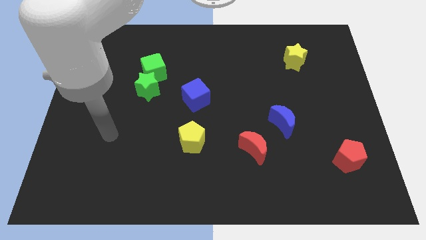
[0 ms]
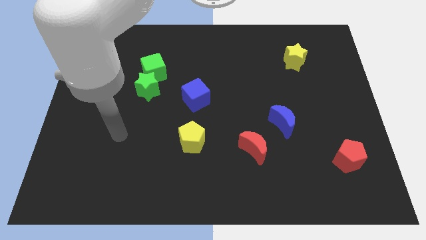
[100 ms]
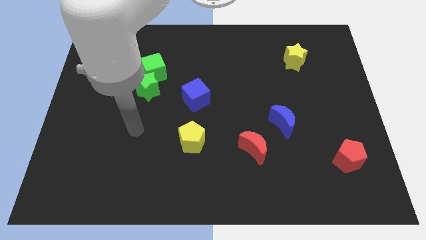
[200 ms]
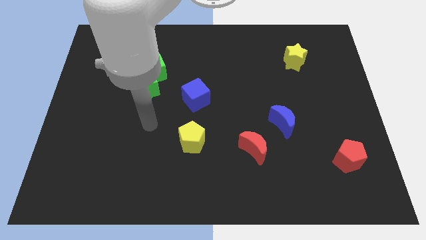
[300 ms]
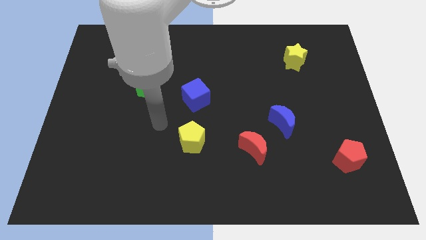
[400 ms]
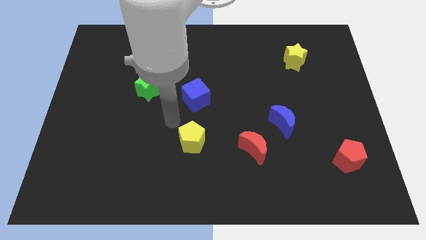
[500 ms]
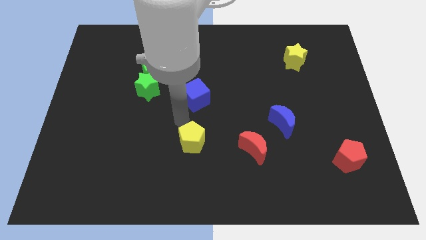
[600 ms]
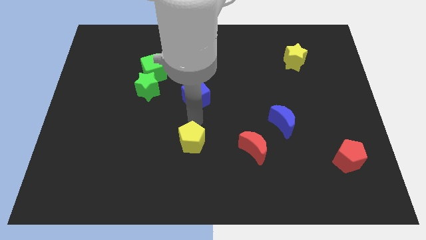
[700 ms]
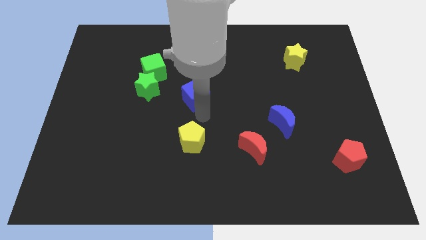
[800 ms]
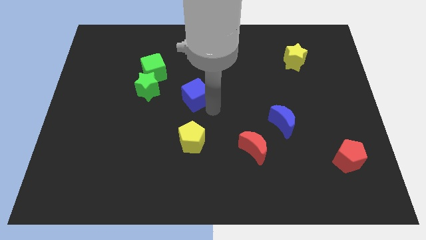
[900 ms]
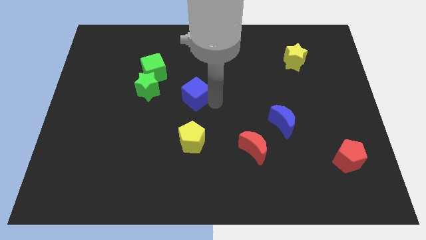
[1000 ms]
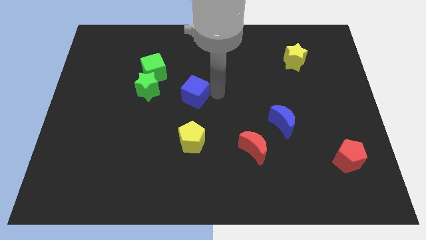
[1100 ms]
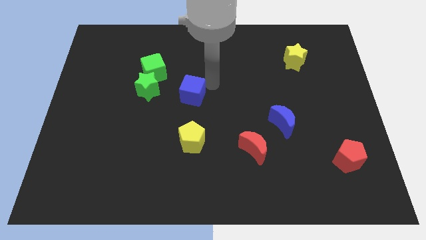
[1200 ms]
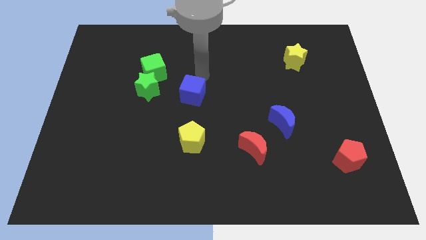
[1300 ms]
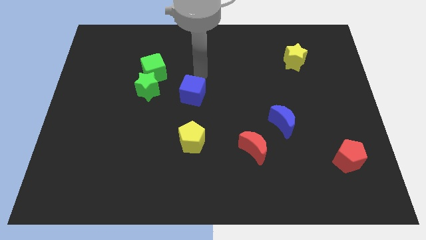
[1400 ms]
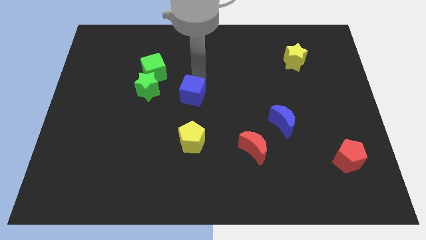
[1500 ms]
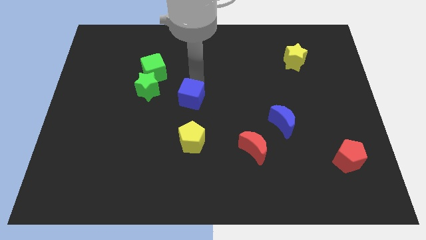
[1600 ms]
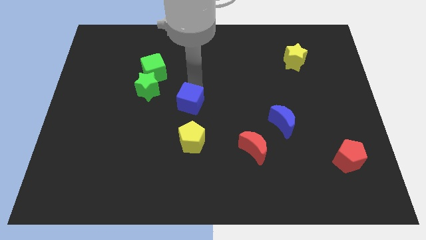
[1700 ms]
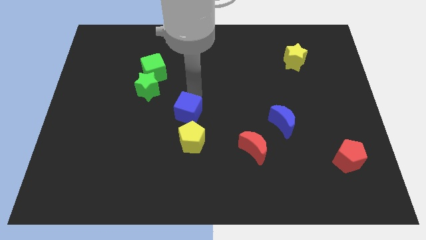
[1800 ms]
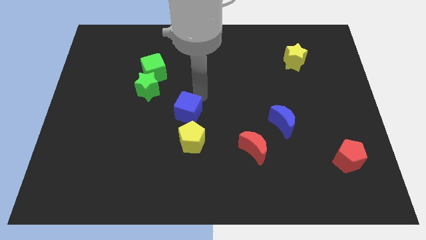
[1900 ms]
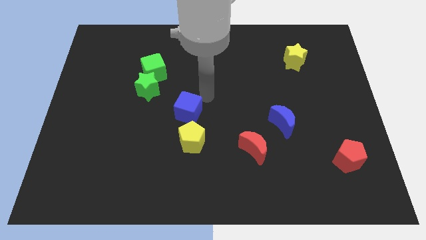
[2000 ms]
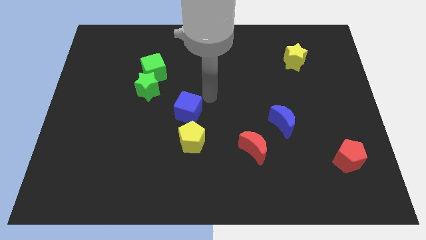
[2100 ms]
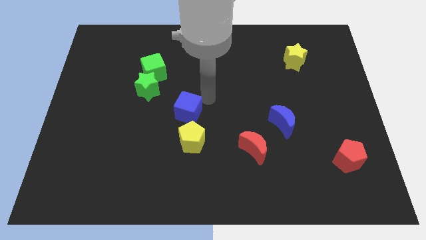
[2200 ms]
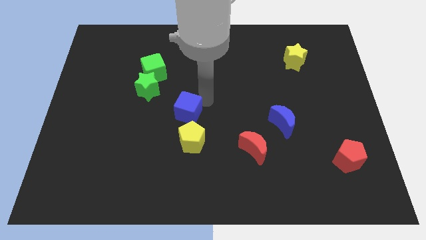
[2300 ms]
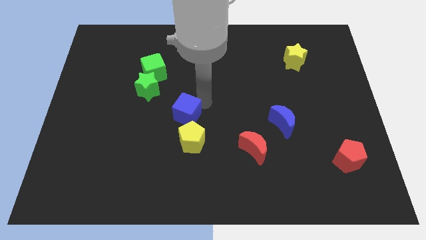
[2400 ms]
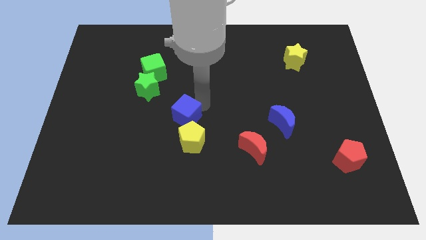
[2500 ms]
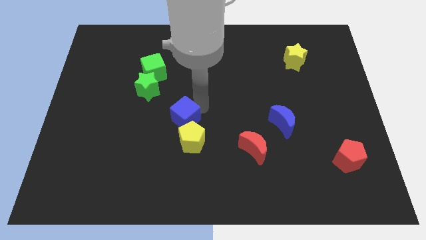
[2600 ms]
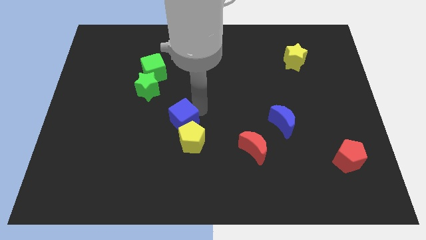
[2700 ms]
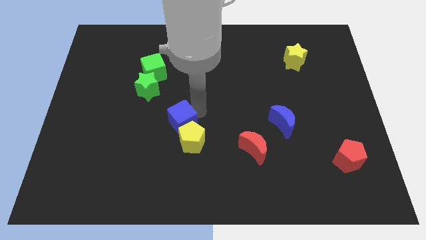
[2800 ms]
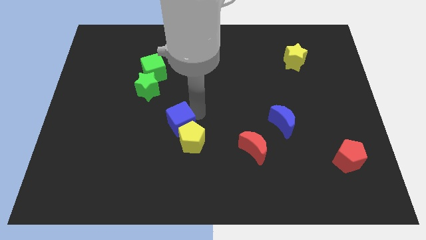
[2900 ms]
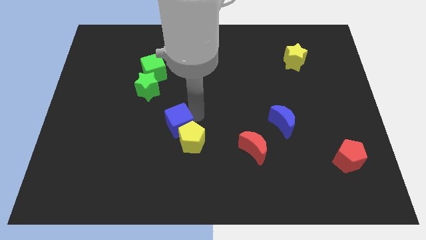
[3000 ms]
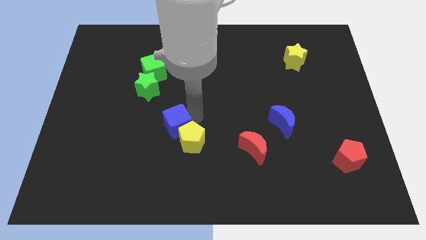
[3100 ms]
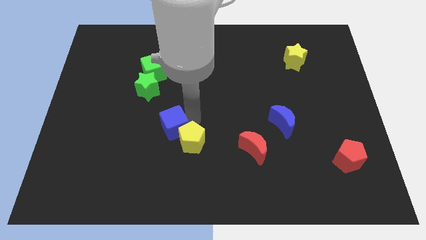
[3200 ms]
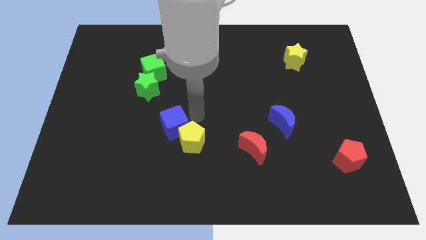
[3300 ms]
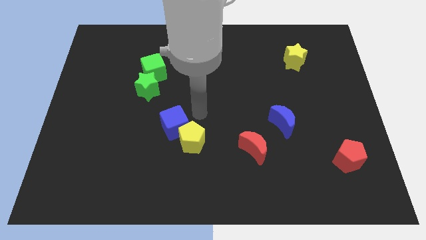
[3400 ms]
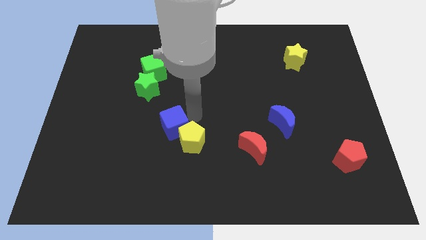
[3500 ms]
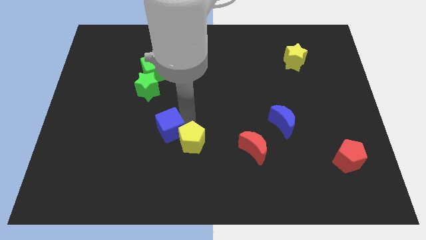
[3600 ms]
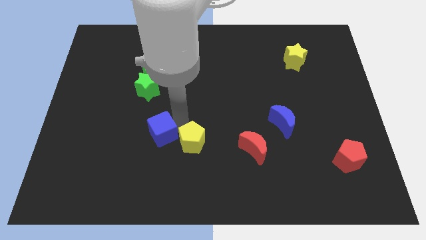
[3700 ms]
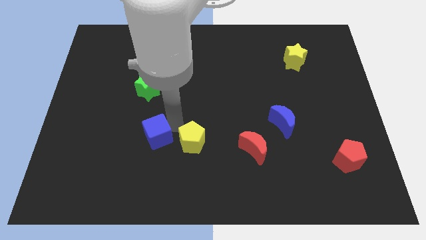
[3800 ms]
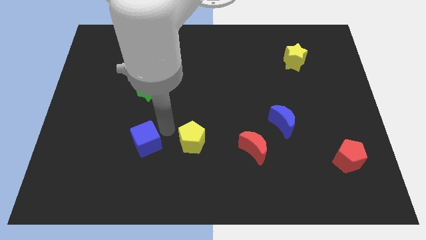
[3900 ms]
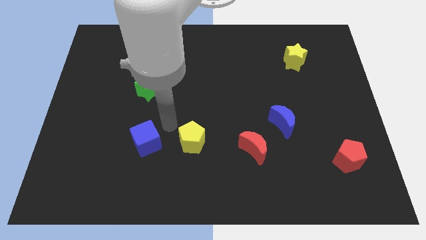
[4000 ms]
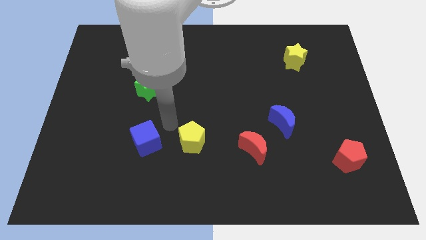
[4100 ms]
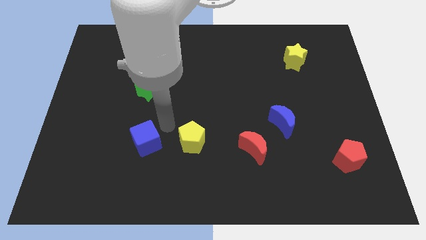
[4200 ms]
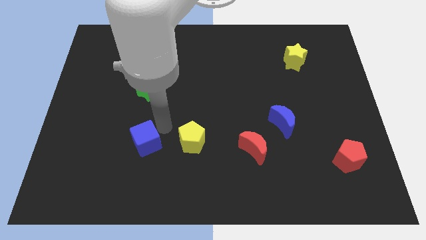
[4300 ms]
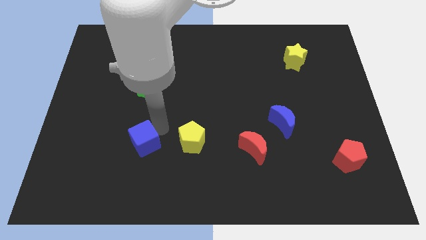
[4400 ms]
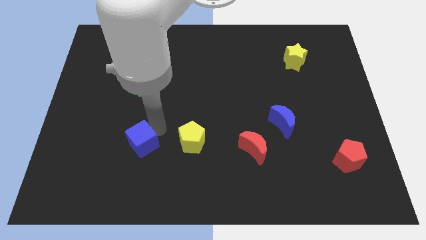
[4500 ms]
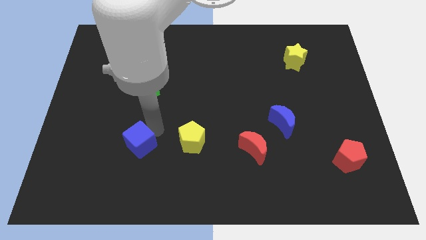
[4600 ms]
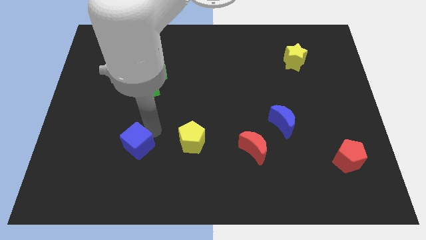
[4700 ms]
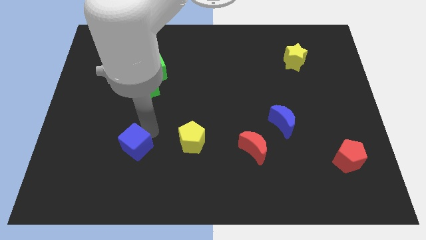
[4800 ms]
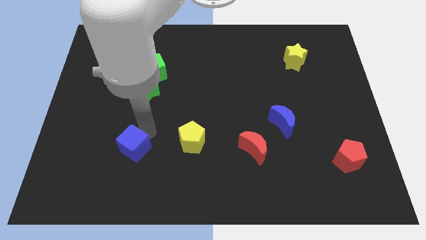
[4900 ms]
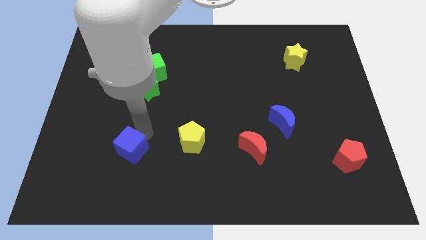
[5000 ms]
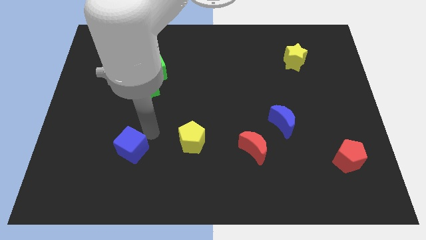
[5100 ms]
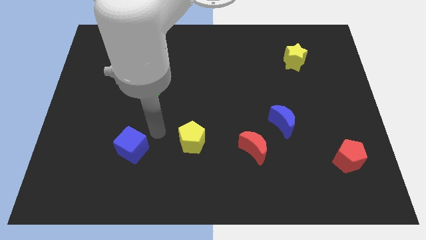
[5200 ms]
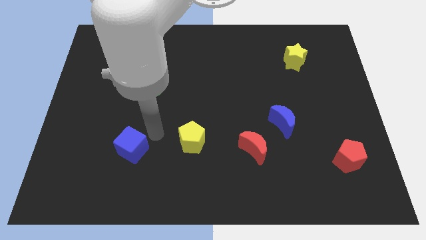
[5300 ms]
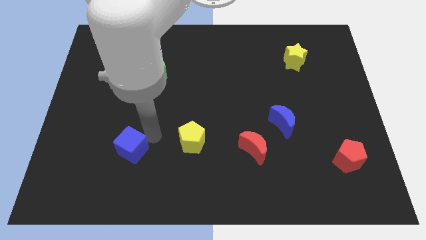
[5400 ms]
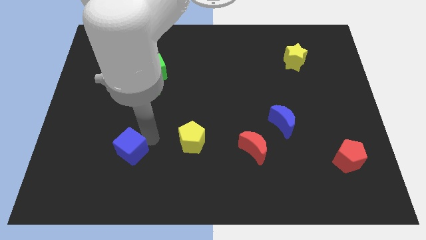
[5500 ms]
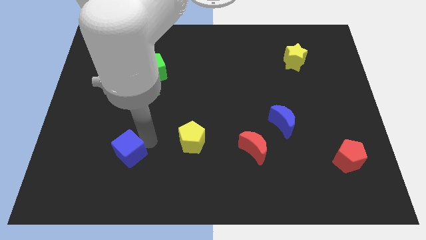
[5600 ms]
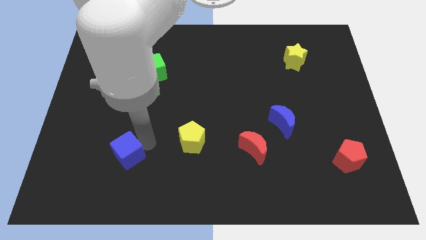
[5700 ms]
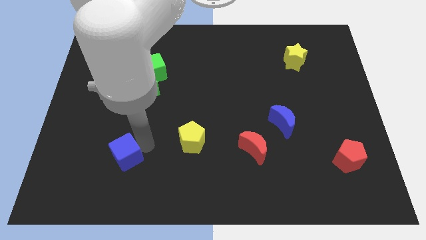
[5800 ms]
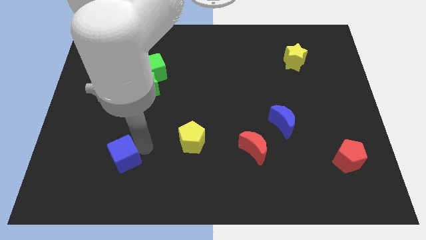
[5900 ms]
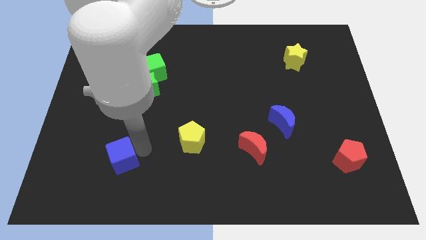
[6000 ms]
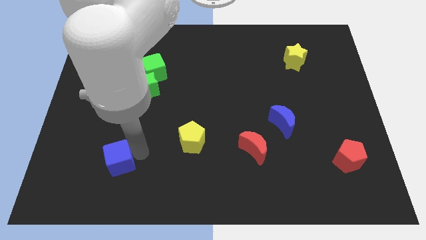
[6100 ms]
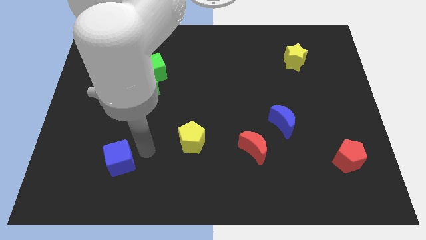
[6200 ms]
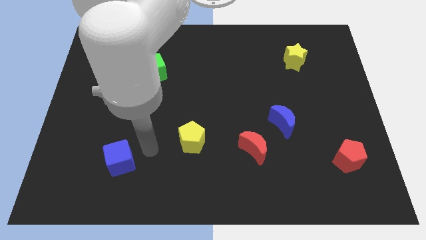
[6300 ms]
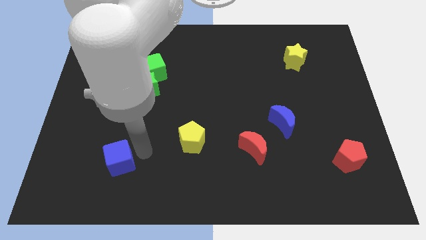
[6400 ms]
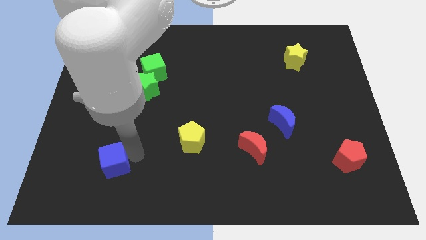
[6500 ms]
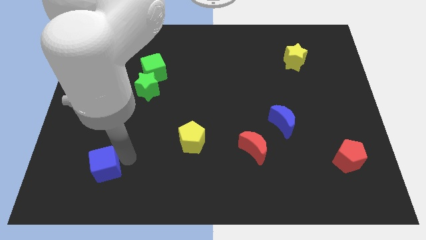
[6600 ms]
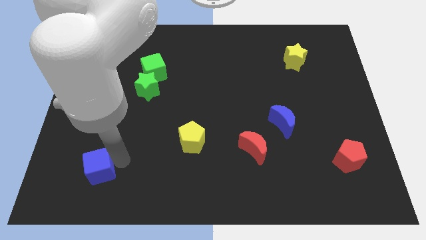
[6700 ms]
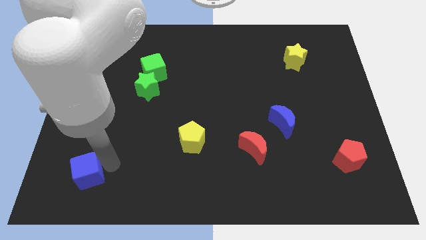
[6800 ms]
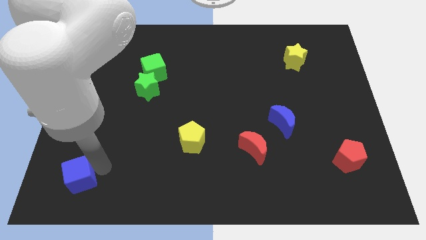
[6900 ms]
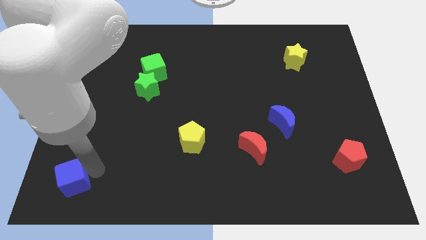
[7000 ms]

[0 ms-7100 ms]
move the blue cube to the lower left corner
